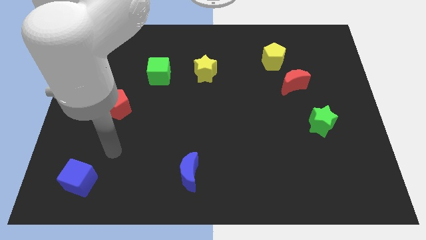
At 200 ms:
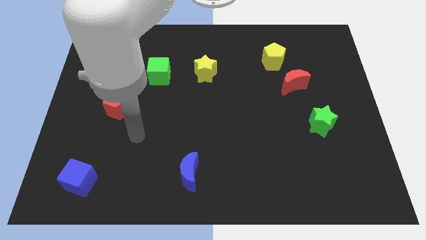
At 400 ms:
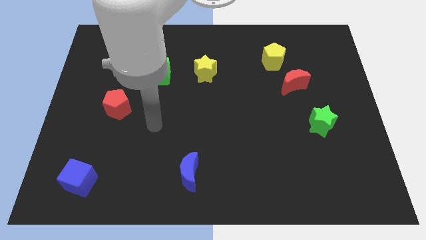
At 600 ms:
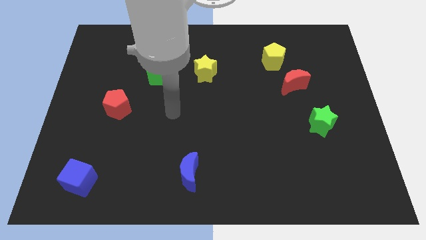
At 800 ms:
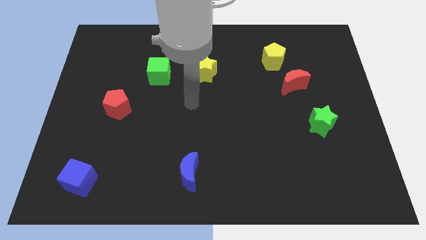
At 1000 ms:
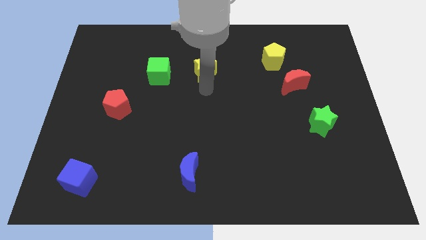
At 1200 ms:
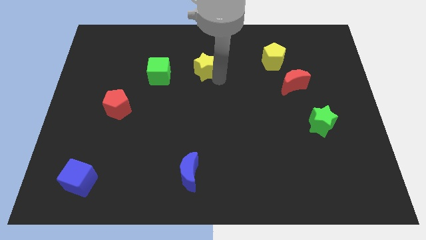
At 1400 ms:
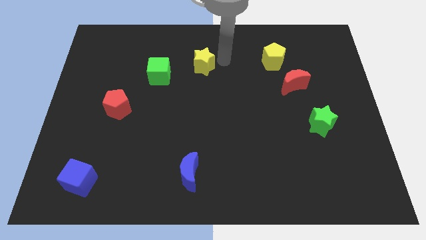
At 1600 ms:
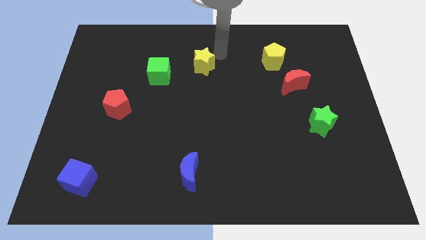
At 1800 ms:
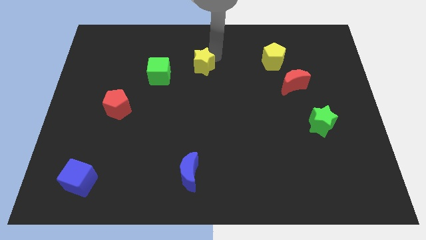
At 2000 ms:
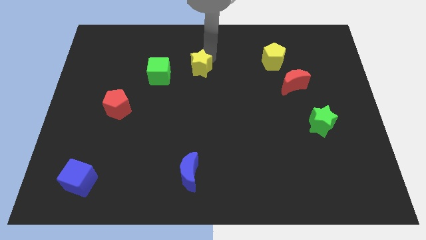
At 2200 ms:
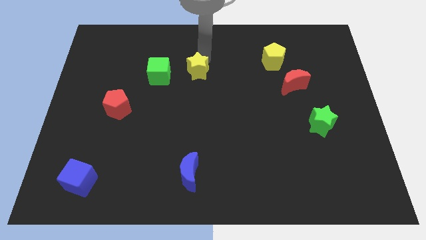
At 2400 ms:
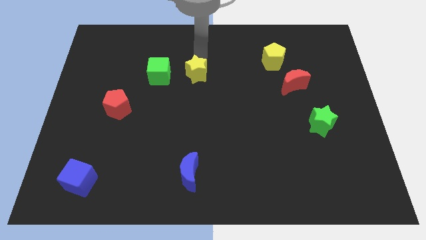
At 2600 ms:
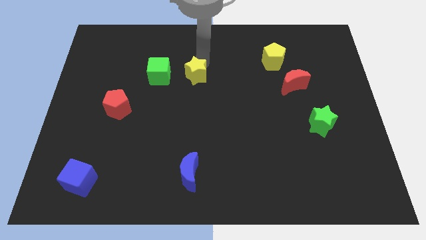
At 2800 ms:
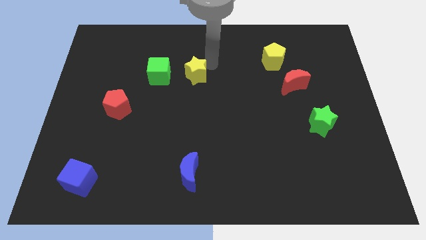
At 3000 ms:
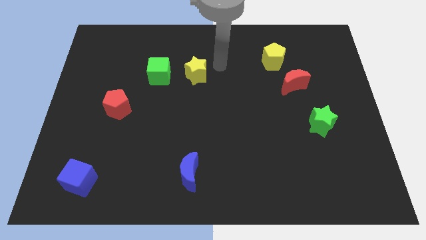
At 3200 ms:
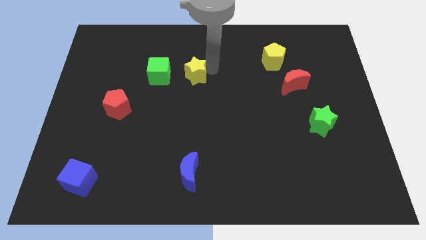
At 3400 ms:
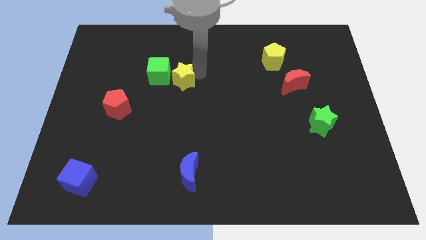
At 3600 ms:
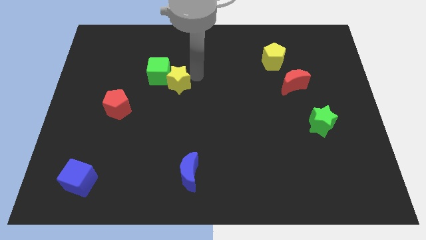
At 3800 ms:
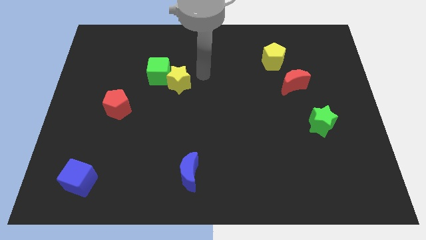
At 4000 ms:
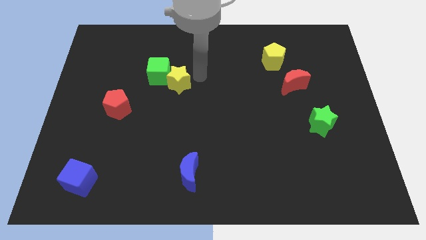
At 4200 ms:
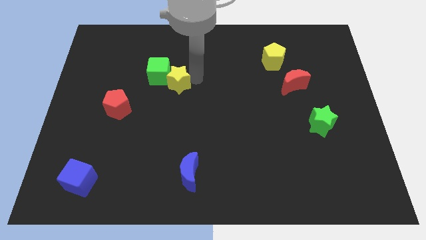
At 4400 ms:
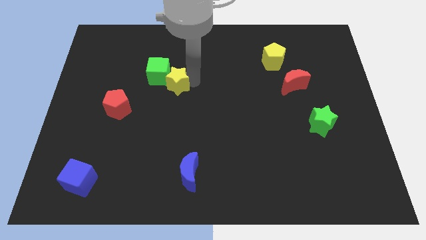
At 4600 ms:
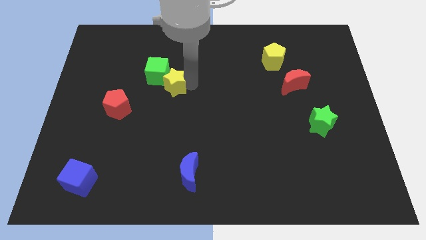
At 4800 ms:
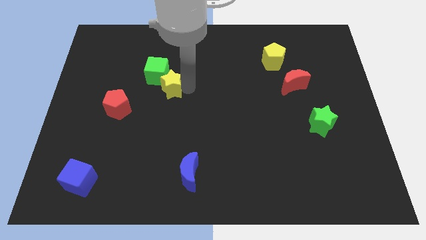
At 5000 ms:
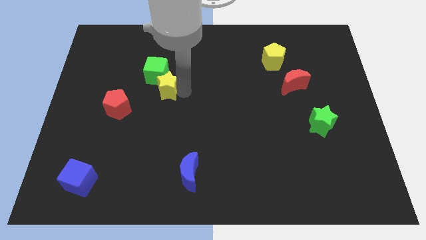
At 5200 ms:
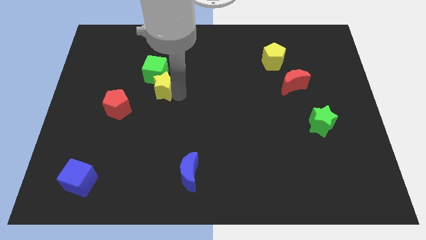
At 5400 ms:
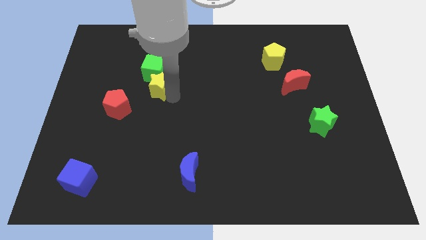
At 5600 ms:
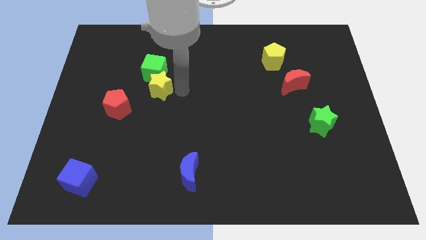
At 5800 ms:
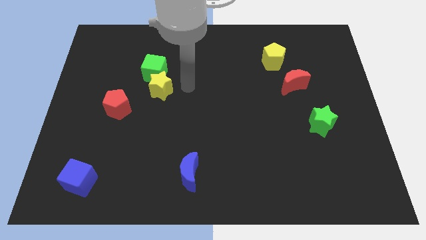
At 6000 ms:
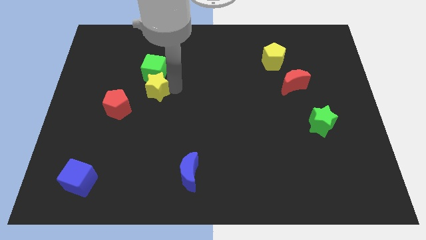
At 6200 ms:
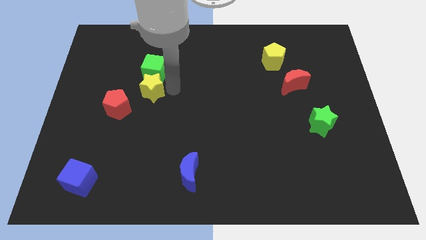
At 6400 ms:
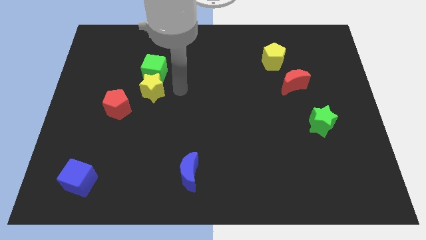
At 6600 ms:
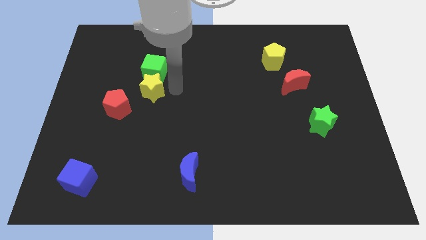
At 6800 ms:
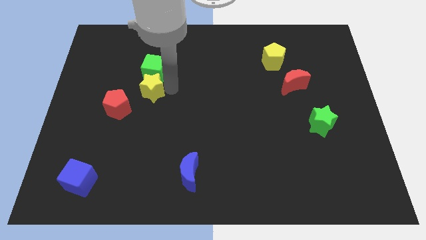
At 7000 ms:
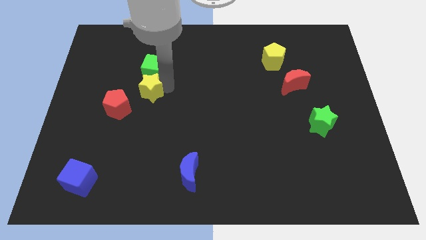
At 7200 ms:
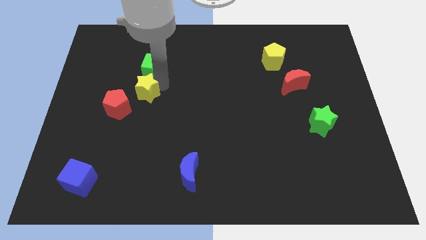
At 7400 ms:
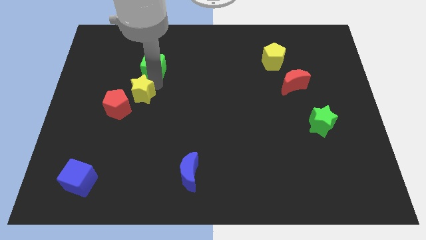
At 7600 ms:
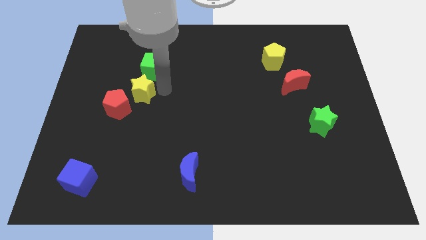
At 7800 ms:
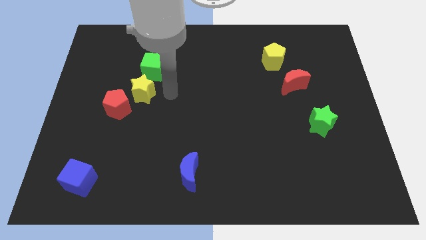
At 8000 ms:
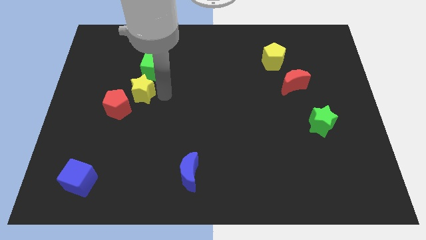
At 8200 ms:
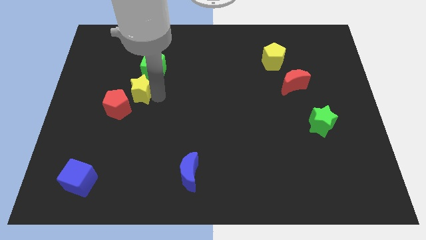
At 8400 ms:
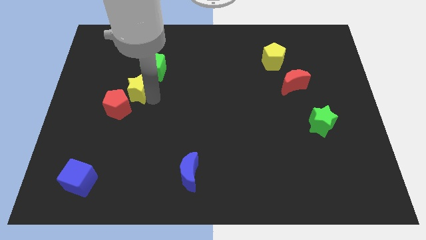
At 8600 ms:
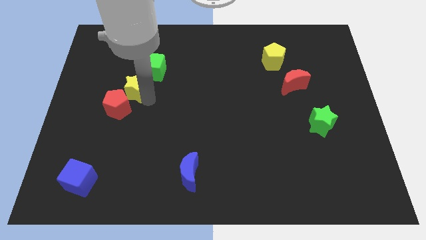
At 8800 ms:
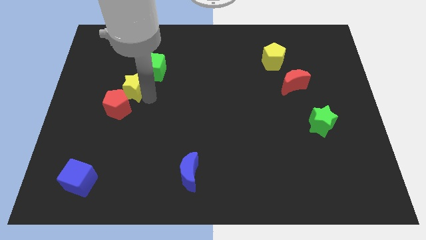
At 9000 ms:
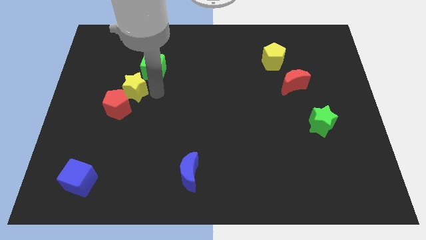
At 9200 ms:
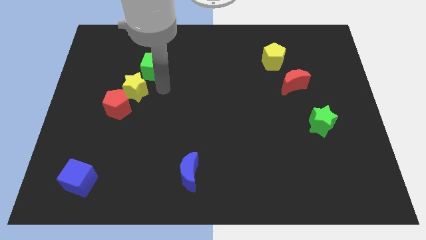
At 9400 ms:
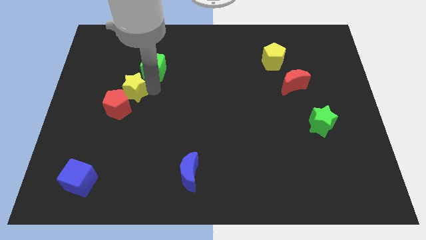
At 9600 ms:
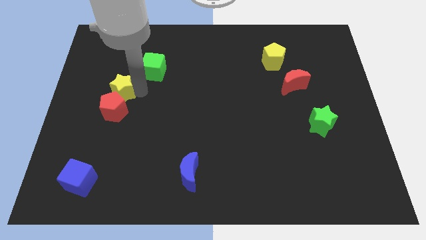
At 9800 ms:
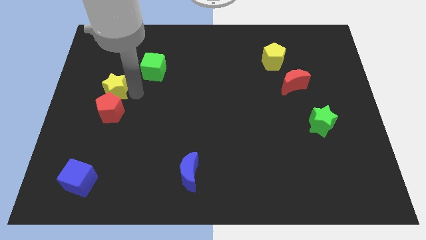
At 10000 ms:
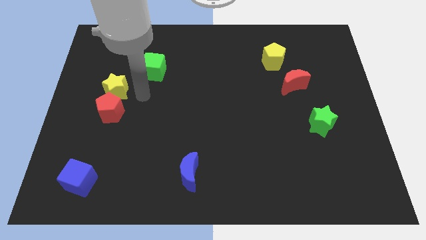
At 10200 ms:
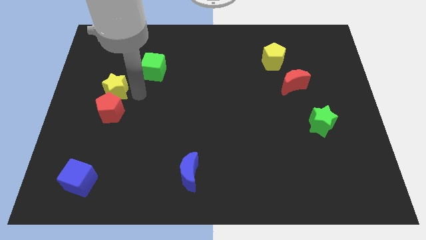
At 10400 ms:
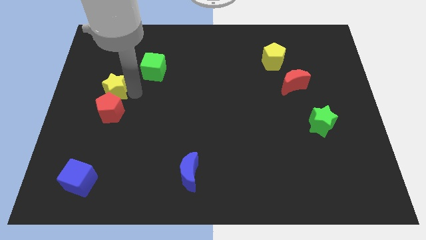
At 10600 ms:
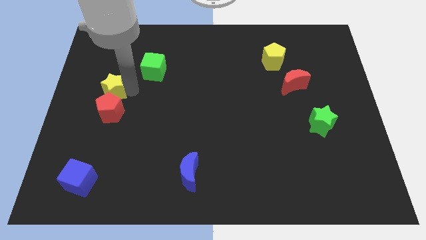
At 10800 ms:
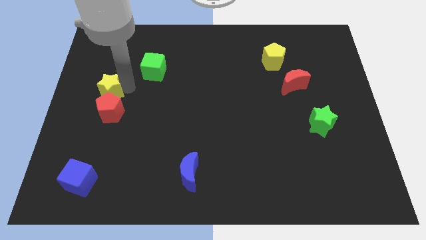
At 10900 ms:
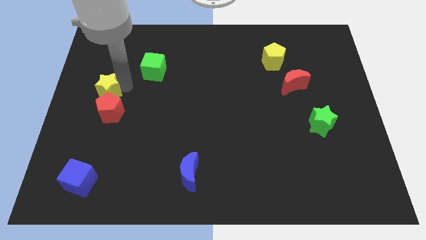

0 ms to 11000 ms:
push the yellow star to the left side

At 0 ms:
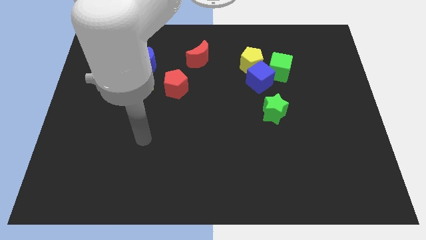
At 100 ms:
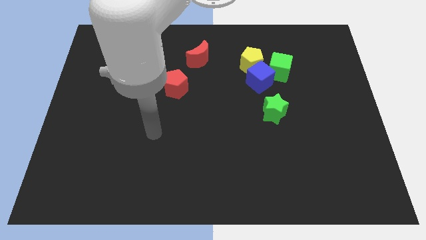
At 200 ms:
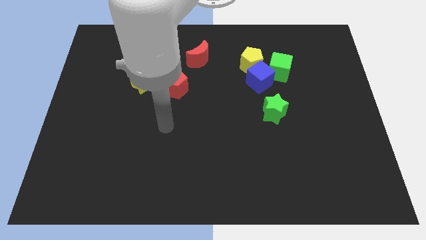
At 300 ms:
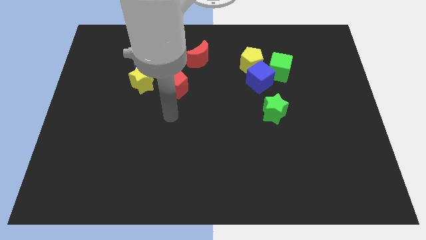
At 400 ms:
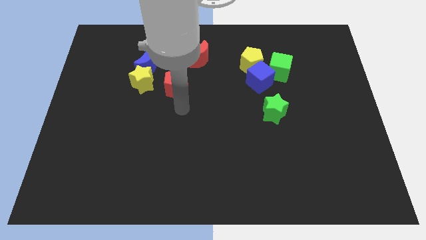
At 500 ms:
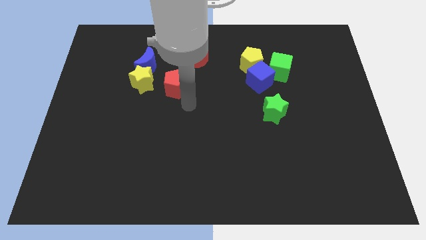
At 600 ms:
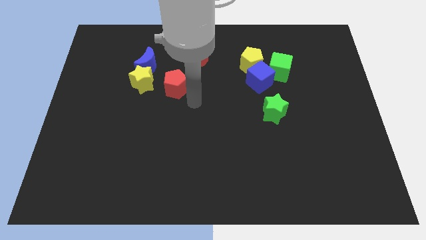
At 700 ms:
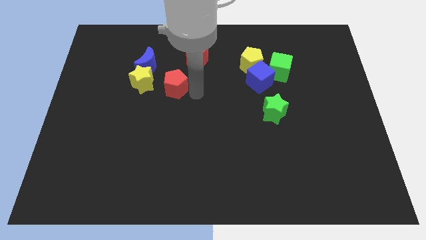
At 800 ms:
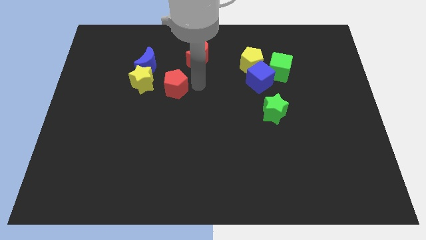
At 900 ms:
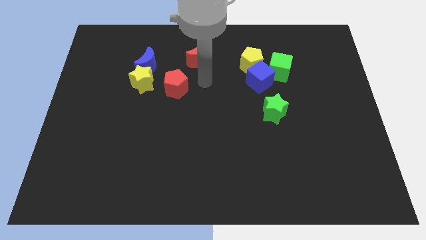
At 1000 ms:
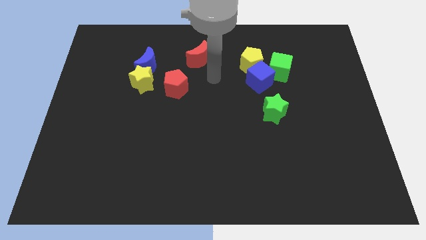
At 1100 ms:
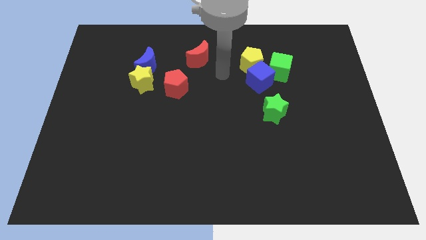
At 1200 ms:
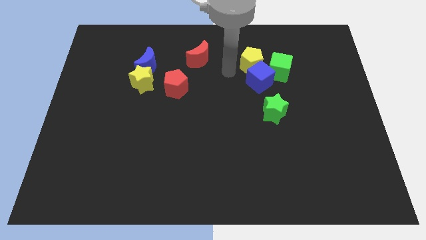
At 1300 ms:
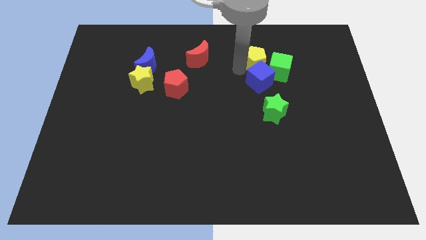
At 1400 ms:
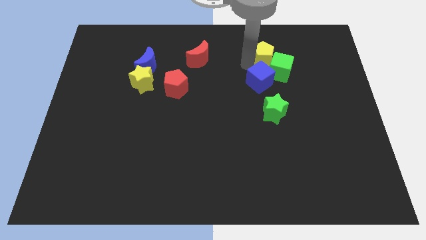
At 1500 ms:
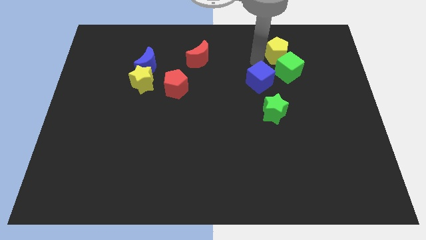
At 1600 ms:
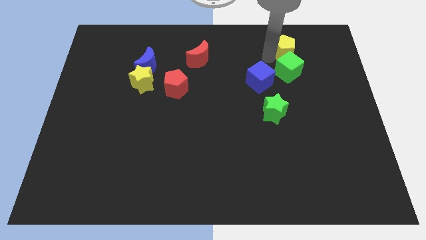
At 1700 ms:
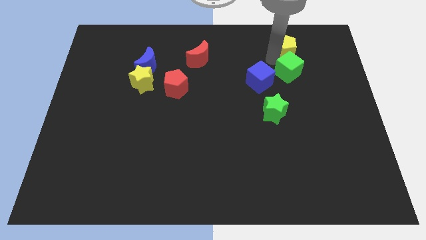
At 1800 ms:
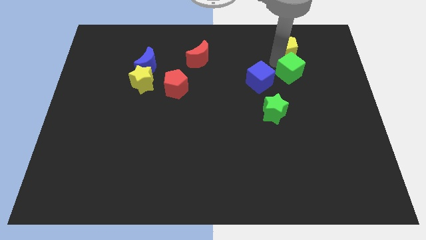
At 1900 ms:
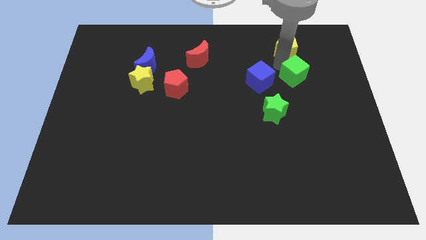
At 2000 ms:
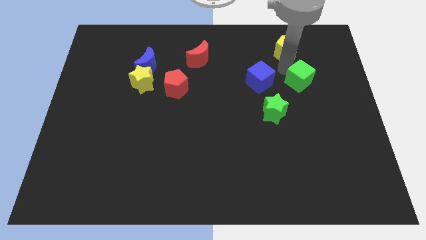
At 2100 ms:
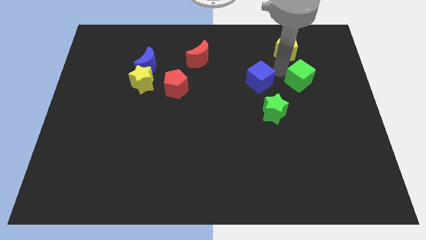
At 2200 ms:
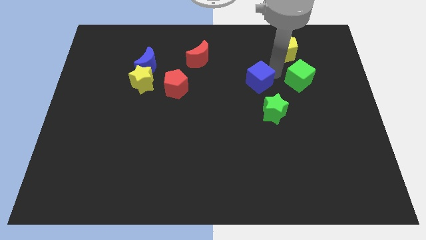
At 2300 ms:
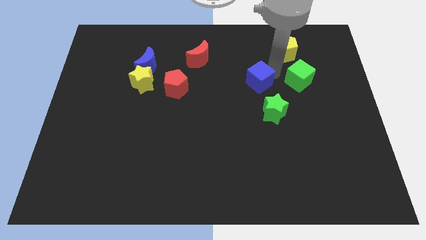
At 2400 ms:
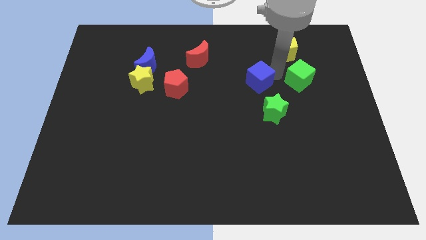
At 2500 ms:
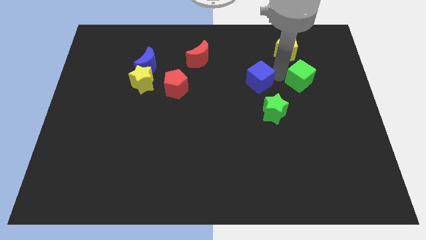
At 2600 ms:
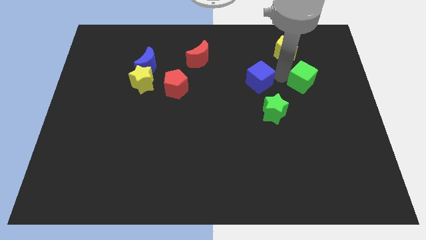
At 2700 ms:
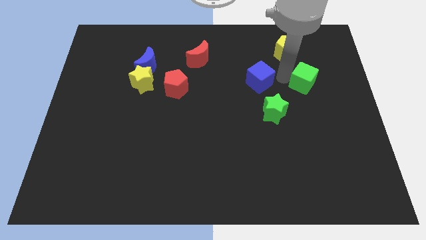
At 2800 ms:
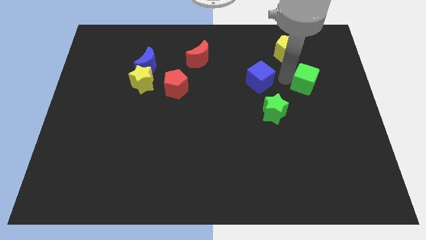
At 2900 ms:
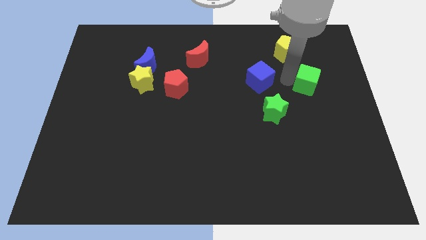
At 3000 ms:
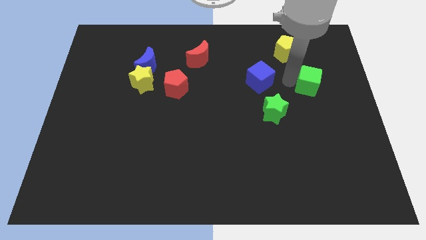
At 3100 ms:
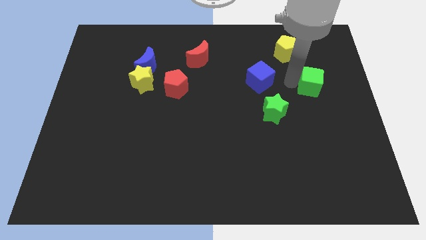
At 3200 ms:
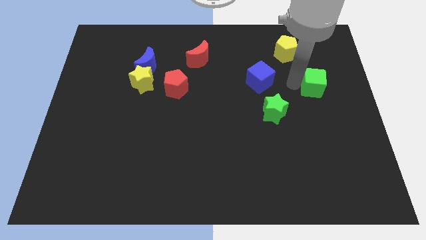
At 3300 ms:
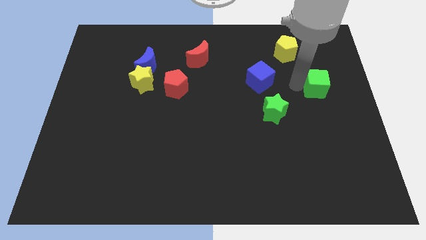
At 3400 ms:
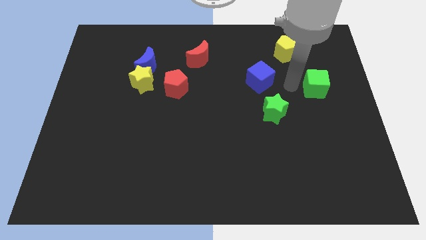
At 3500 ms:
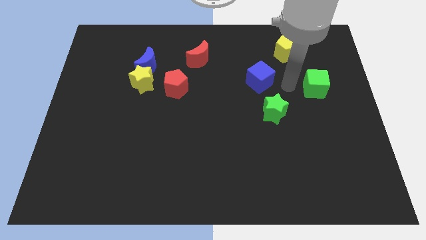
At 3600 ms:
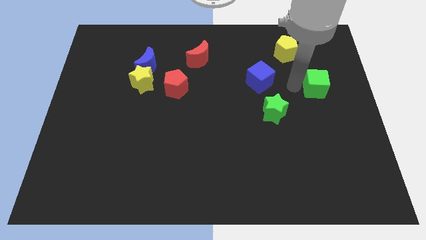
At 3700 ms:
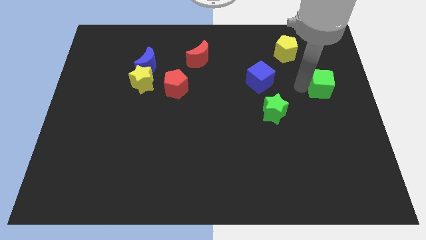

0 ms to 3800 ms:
slide the green cube to the right side of the board
